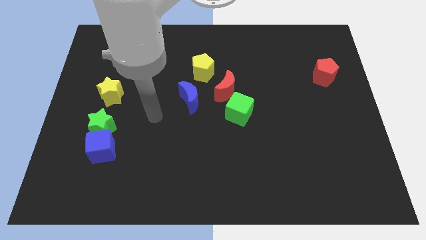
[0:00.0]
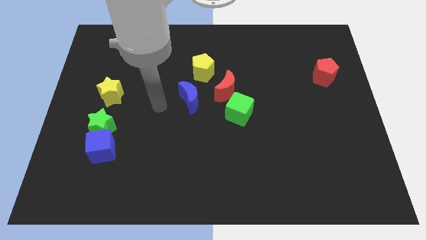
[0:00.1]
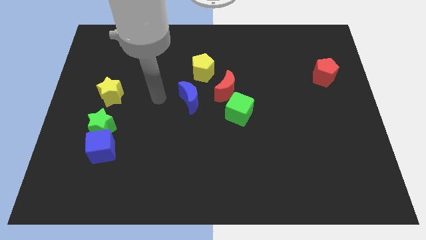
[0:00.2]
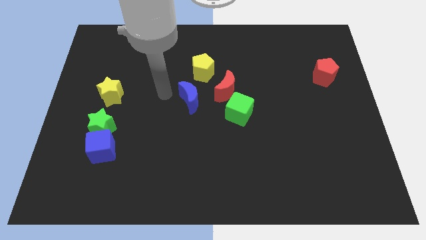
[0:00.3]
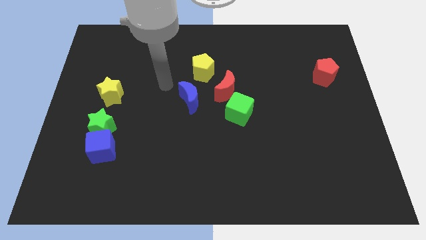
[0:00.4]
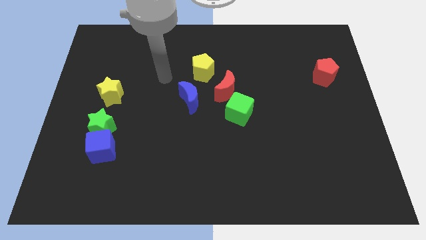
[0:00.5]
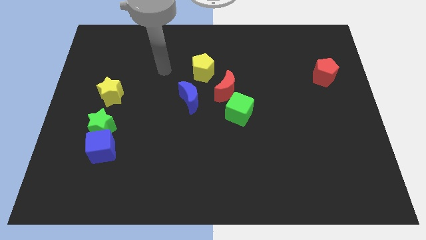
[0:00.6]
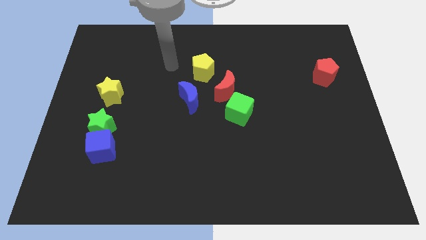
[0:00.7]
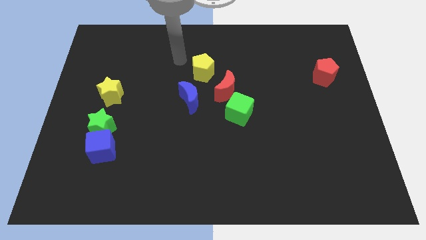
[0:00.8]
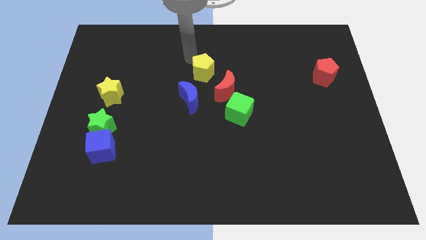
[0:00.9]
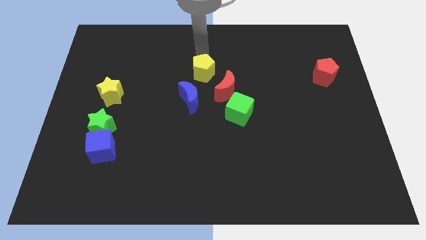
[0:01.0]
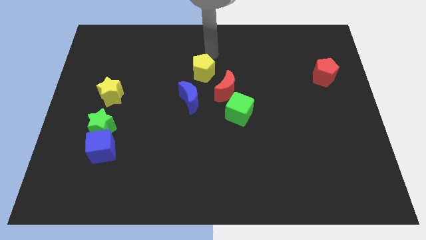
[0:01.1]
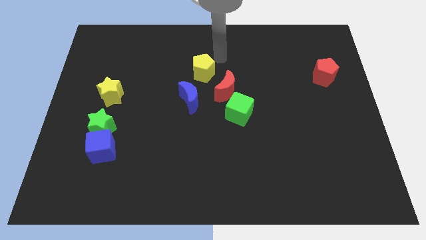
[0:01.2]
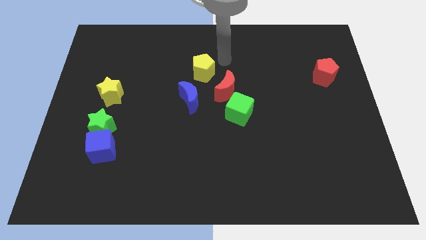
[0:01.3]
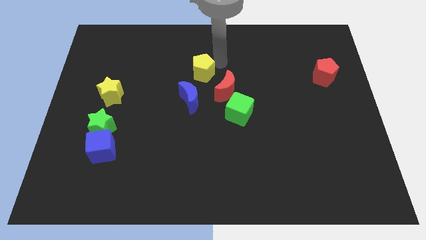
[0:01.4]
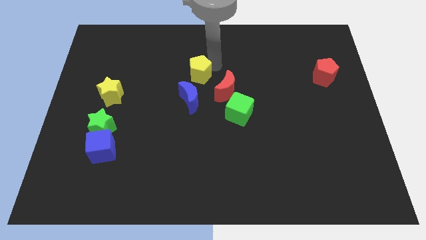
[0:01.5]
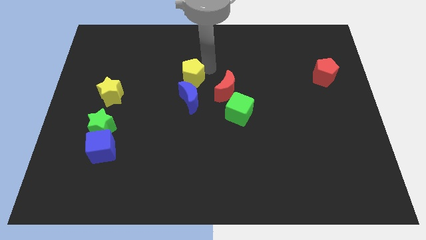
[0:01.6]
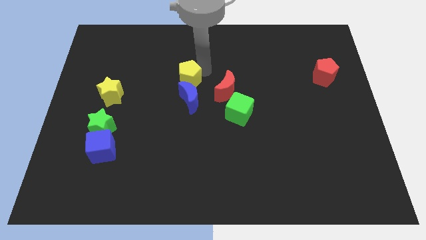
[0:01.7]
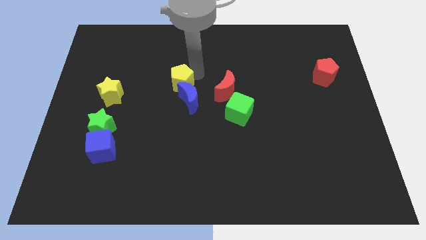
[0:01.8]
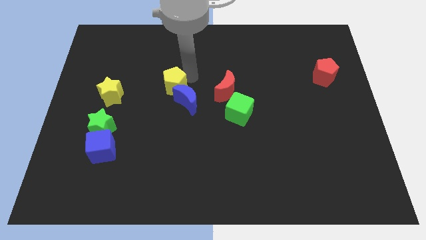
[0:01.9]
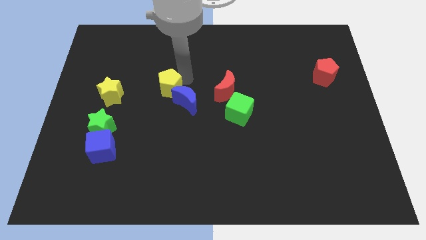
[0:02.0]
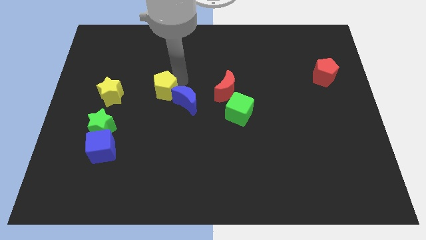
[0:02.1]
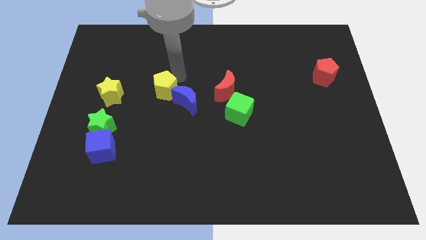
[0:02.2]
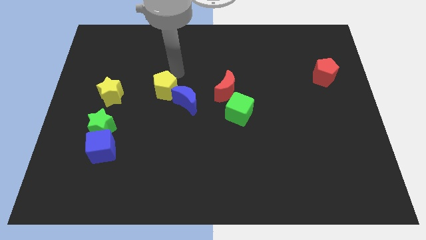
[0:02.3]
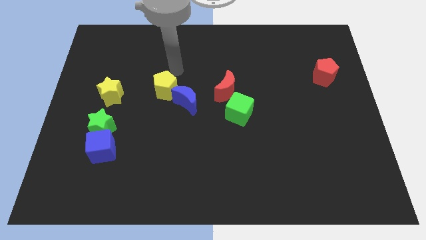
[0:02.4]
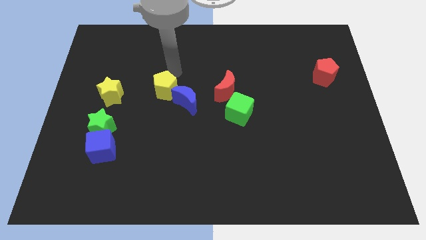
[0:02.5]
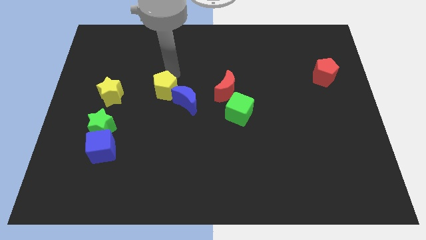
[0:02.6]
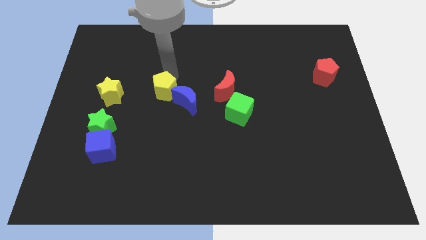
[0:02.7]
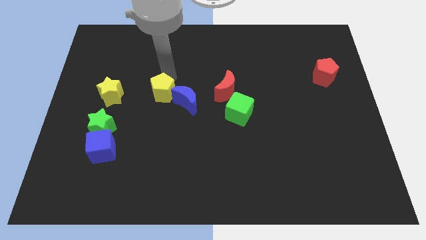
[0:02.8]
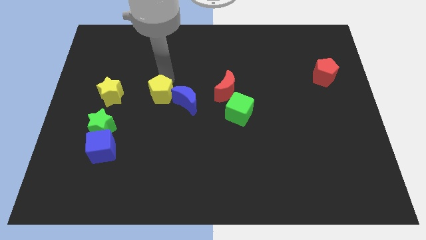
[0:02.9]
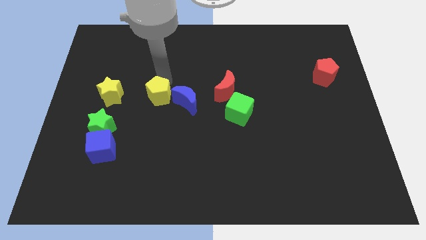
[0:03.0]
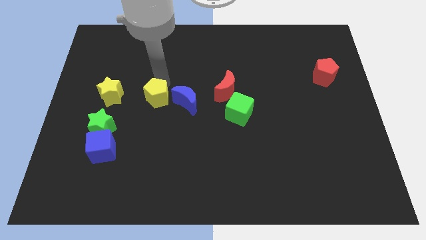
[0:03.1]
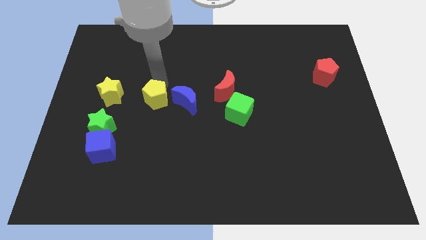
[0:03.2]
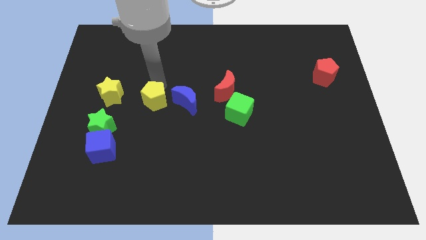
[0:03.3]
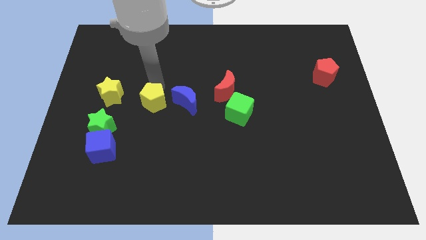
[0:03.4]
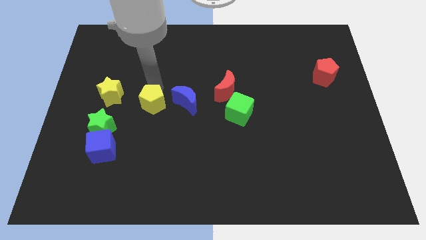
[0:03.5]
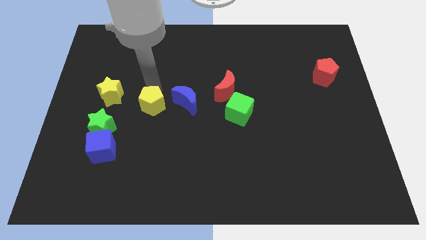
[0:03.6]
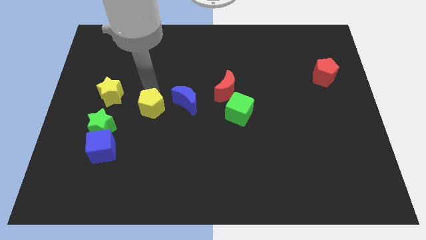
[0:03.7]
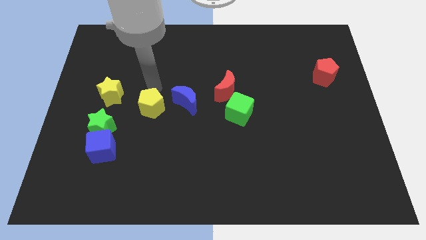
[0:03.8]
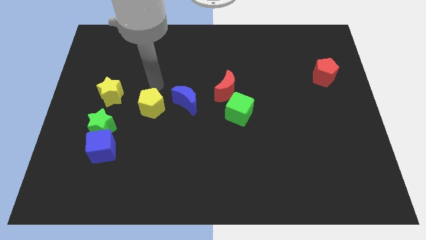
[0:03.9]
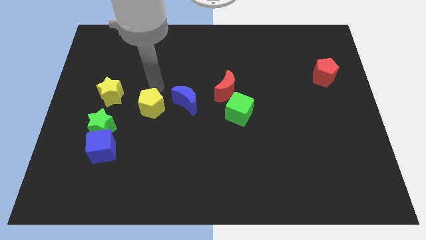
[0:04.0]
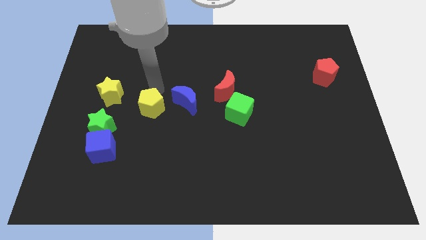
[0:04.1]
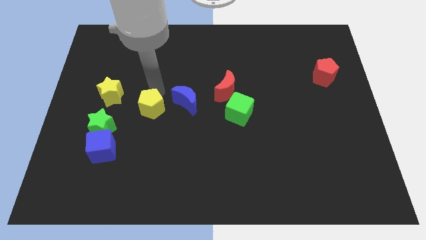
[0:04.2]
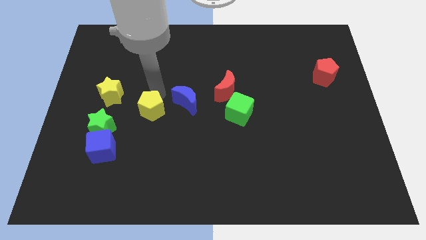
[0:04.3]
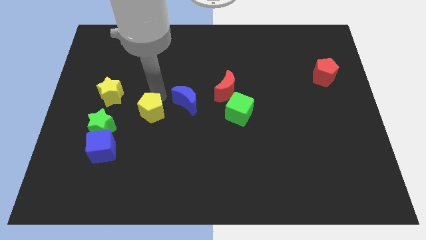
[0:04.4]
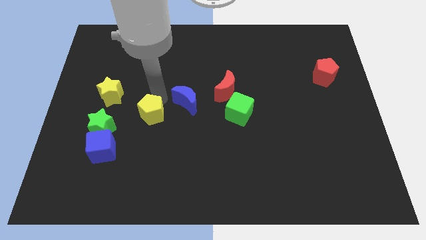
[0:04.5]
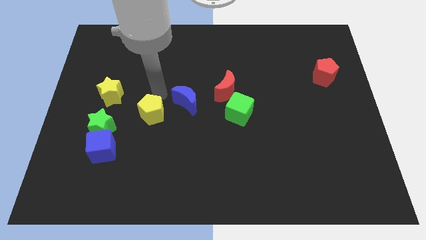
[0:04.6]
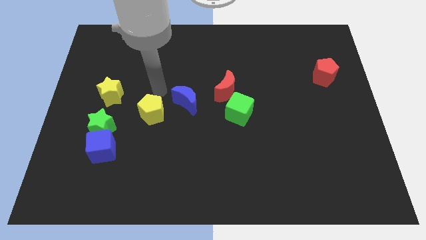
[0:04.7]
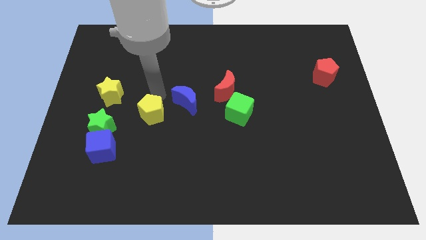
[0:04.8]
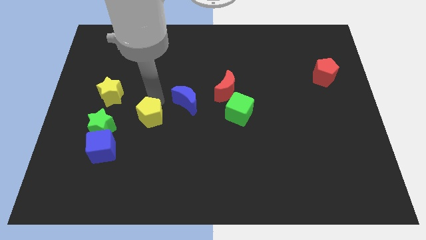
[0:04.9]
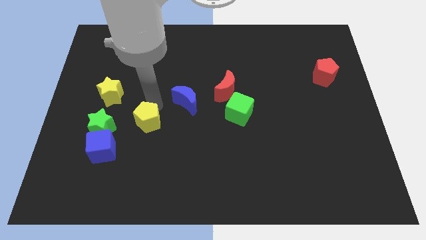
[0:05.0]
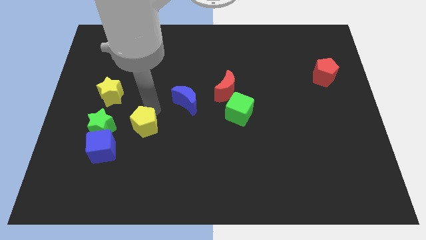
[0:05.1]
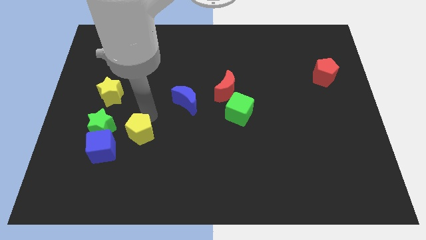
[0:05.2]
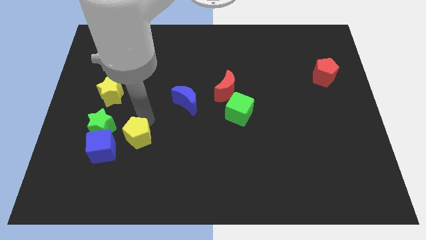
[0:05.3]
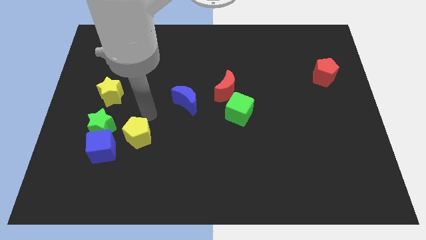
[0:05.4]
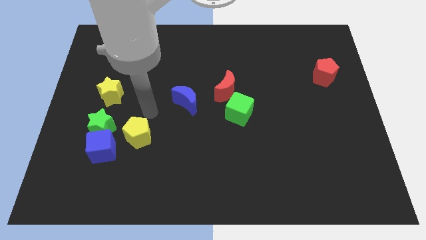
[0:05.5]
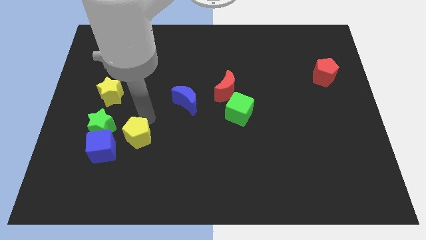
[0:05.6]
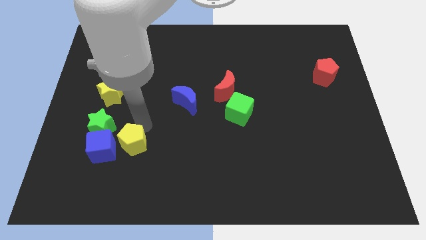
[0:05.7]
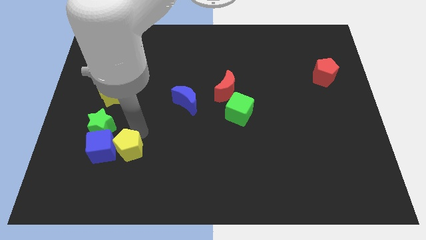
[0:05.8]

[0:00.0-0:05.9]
slide the yellow pentagon to the bottom right of the blue cube

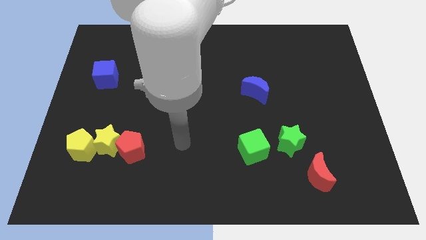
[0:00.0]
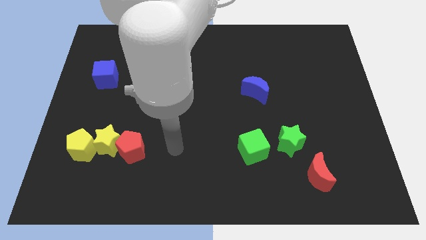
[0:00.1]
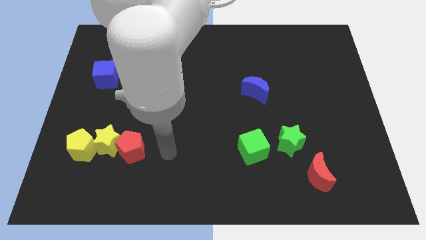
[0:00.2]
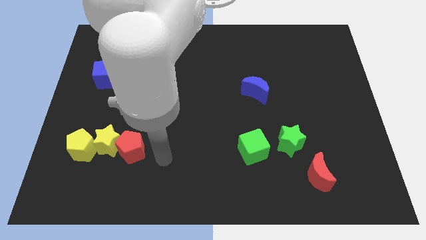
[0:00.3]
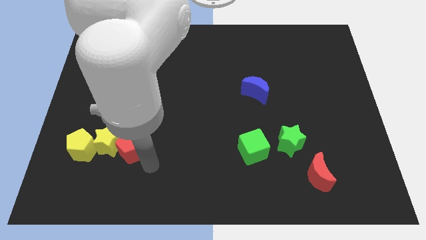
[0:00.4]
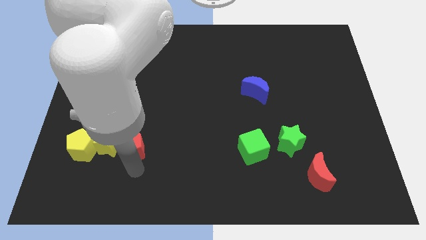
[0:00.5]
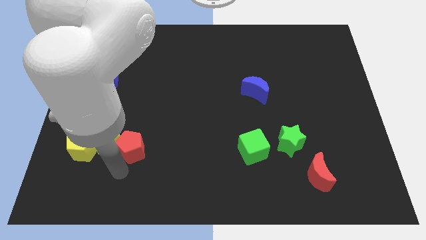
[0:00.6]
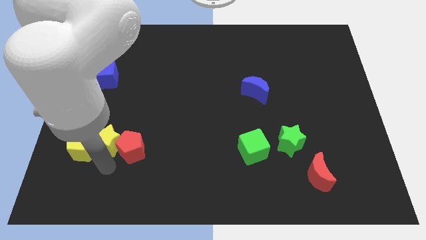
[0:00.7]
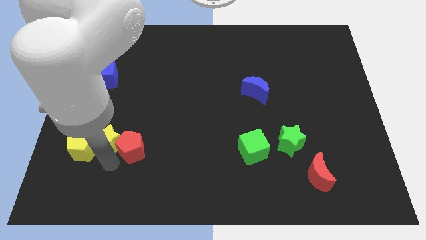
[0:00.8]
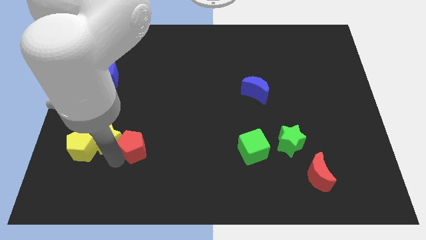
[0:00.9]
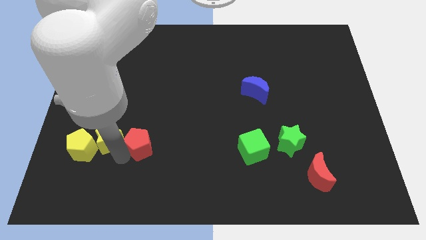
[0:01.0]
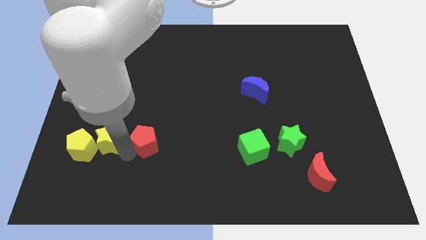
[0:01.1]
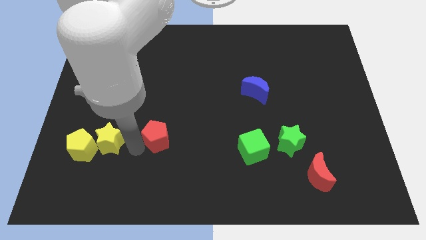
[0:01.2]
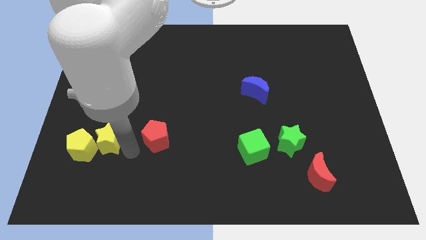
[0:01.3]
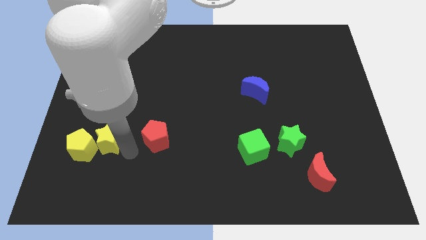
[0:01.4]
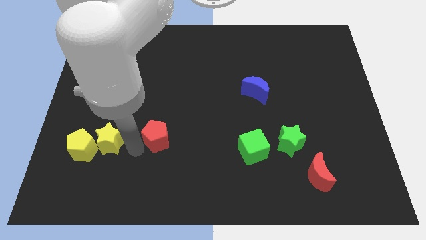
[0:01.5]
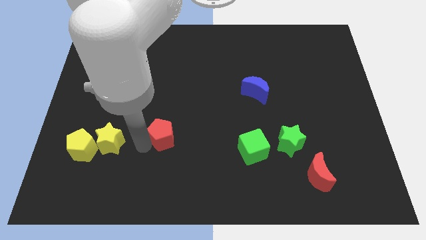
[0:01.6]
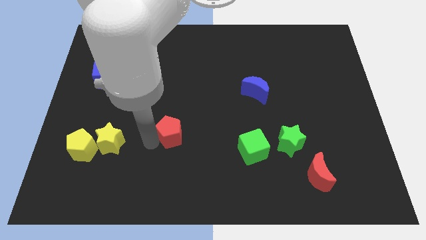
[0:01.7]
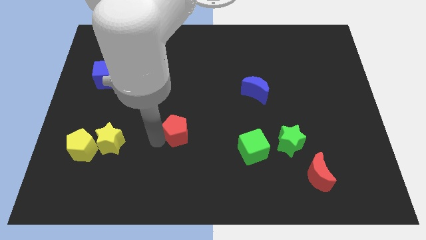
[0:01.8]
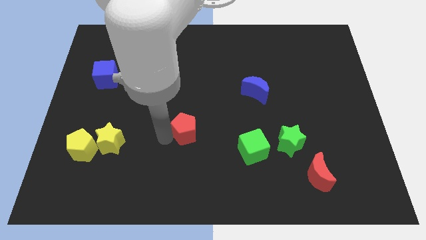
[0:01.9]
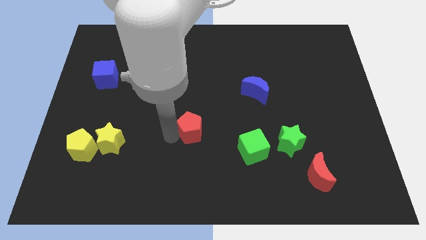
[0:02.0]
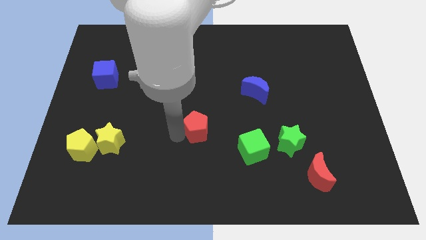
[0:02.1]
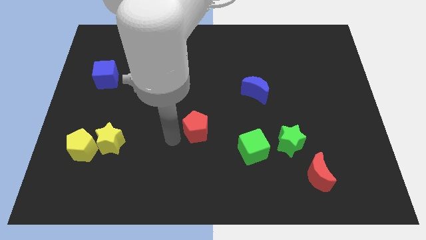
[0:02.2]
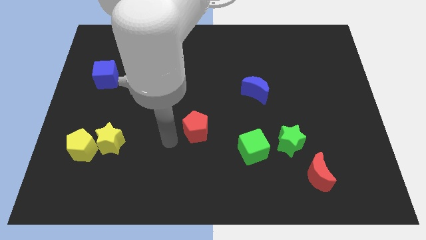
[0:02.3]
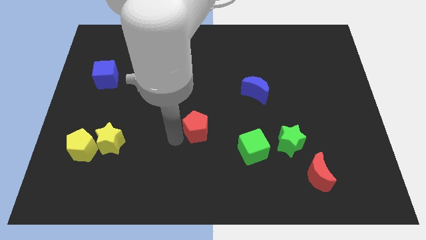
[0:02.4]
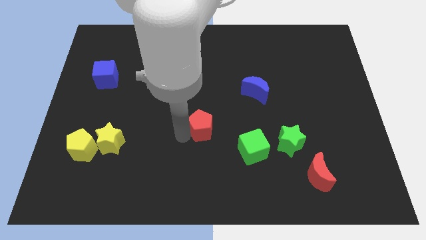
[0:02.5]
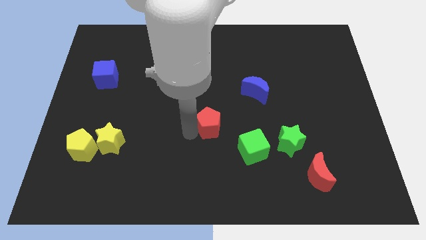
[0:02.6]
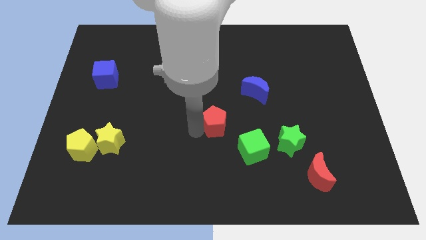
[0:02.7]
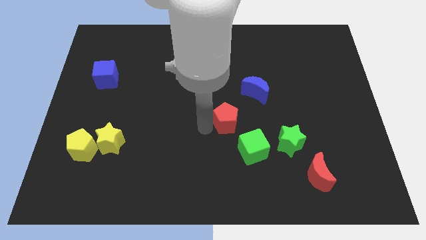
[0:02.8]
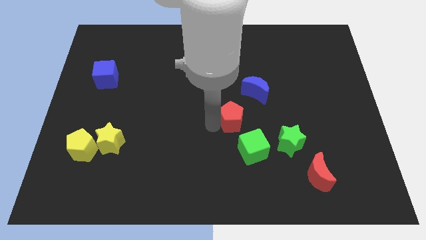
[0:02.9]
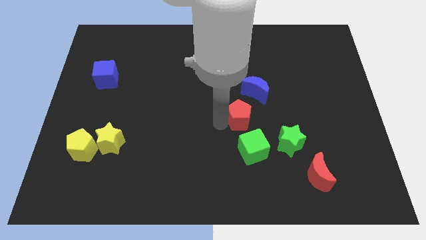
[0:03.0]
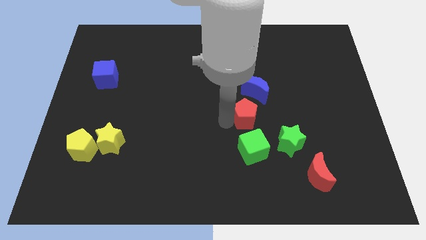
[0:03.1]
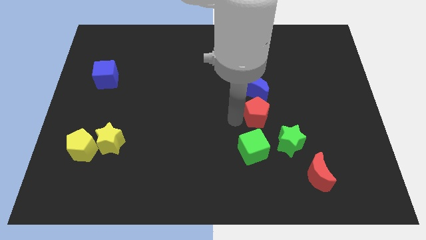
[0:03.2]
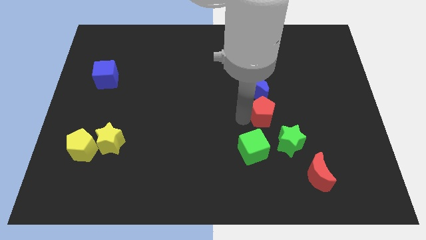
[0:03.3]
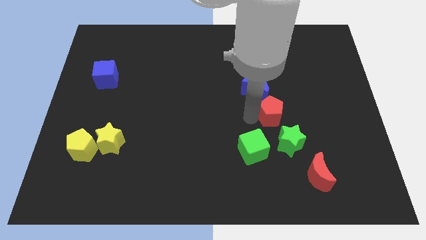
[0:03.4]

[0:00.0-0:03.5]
put the red pentagon to the top of the green star
